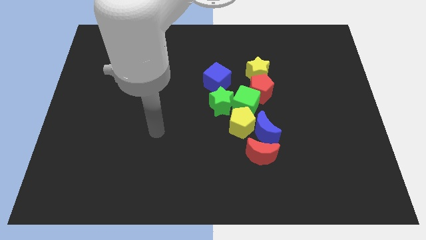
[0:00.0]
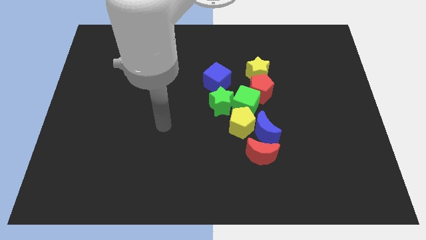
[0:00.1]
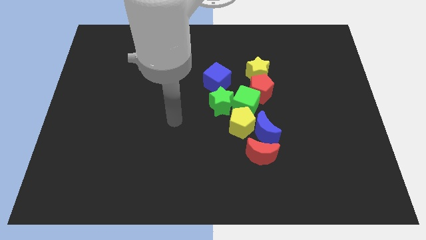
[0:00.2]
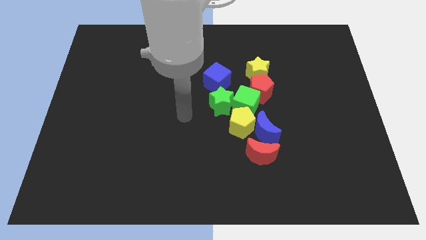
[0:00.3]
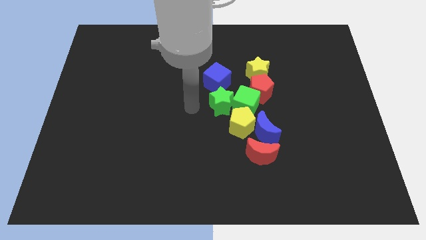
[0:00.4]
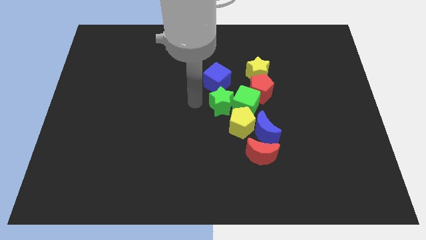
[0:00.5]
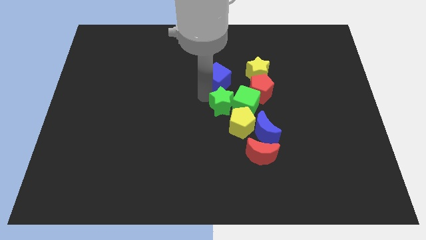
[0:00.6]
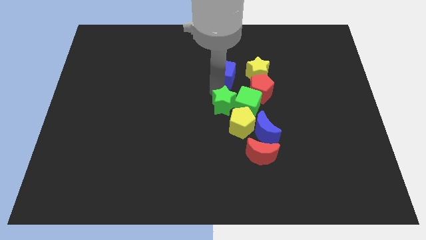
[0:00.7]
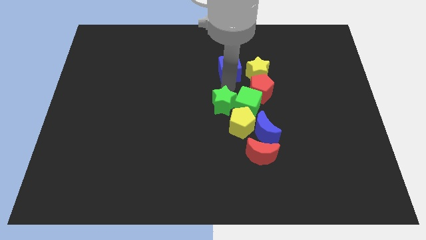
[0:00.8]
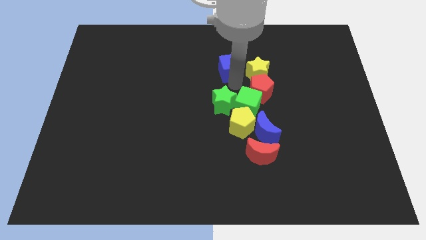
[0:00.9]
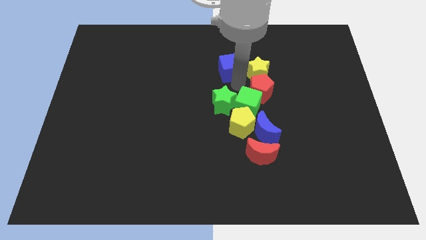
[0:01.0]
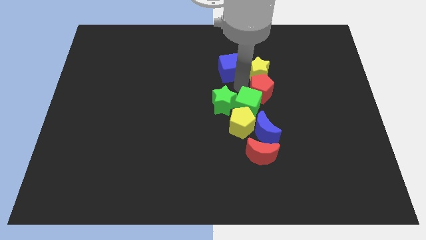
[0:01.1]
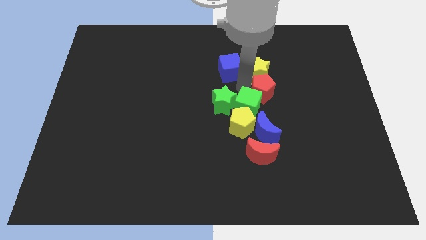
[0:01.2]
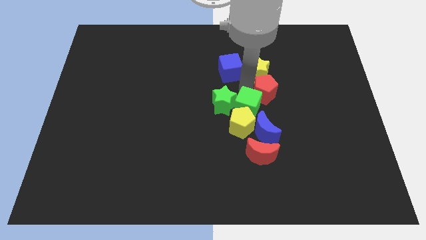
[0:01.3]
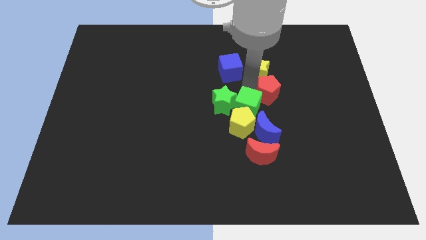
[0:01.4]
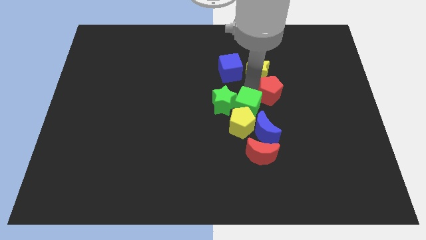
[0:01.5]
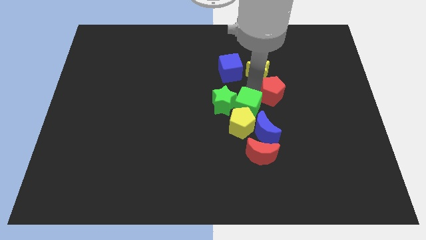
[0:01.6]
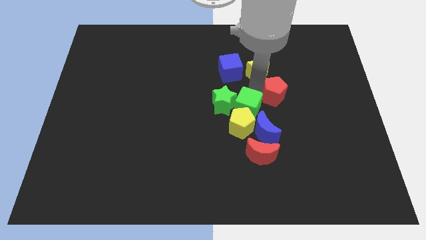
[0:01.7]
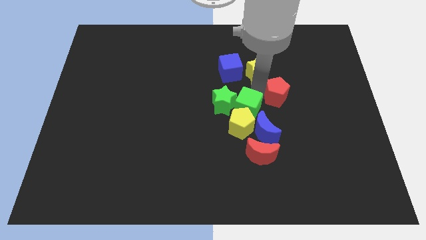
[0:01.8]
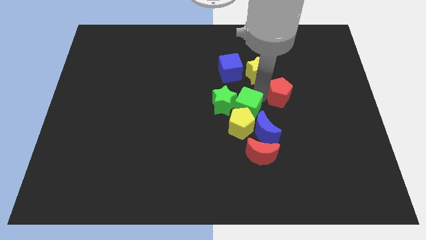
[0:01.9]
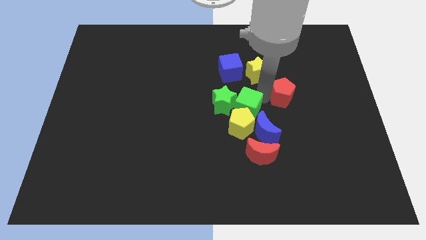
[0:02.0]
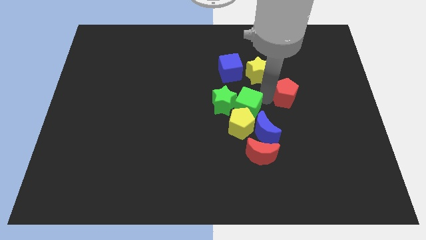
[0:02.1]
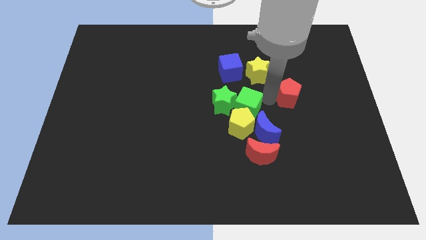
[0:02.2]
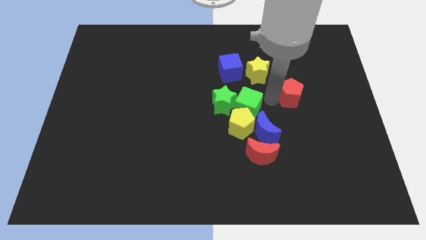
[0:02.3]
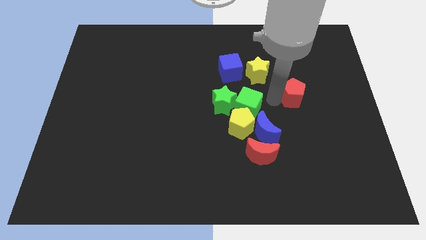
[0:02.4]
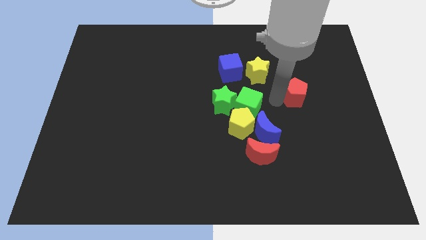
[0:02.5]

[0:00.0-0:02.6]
move the red pentagon away from the green cube and yellow star

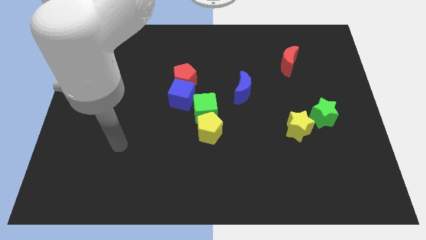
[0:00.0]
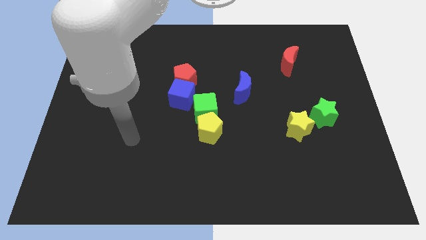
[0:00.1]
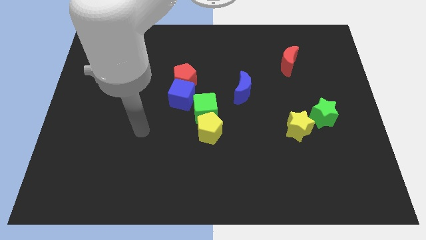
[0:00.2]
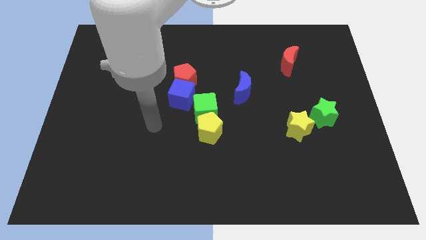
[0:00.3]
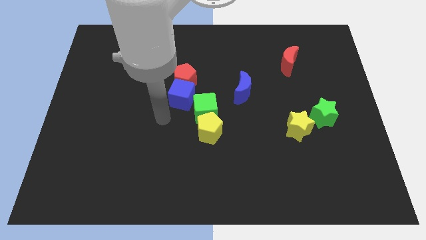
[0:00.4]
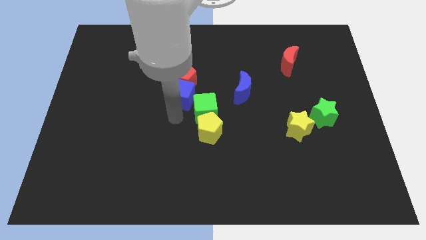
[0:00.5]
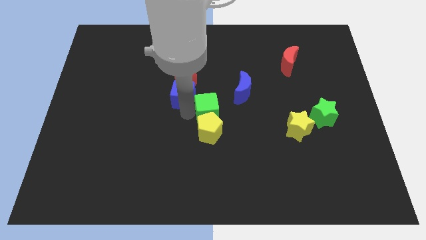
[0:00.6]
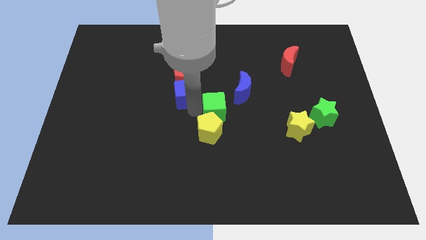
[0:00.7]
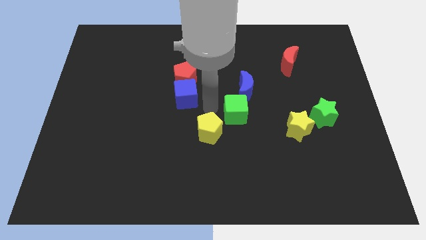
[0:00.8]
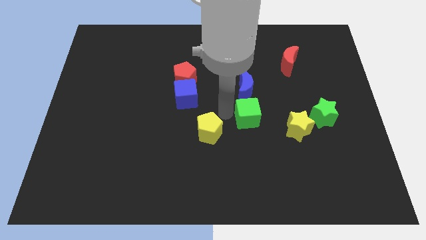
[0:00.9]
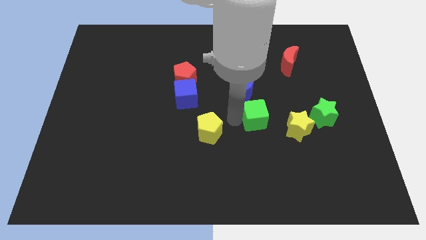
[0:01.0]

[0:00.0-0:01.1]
separate the yellow pentagon from the green cube

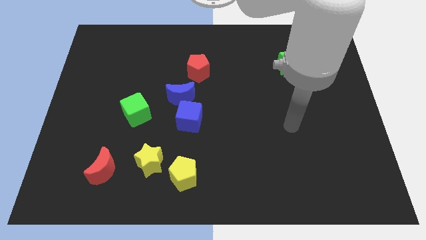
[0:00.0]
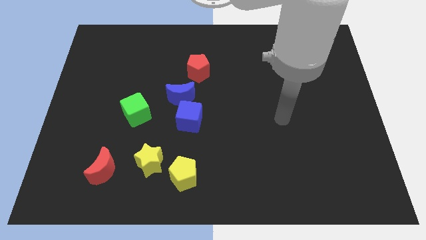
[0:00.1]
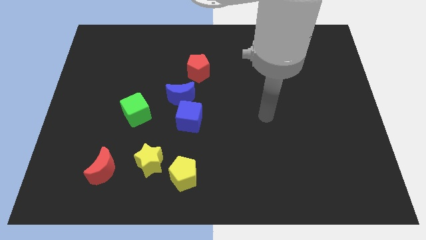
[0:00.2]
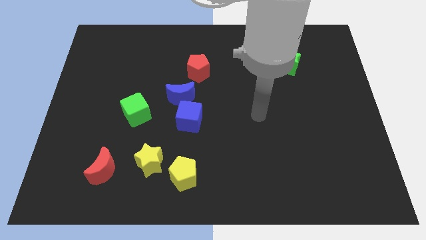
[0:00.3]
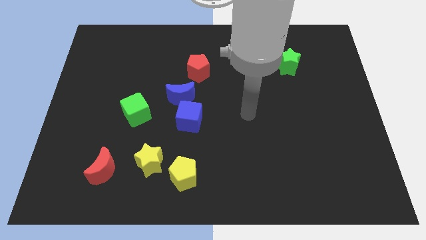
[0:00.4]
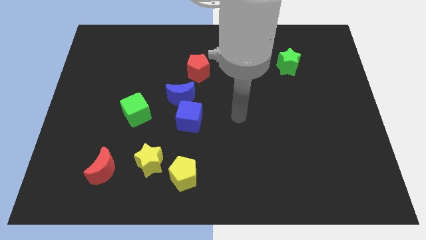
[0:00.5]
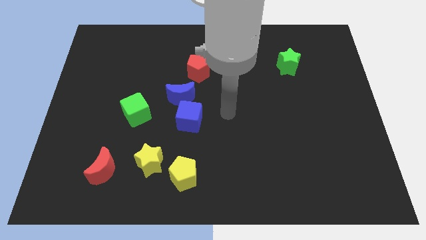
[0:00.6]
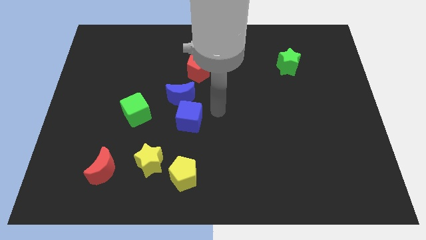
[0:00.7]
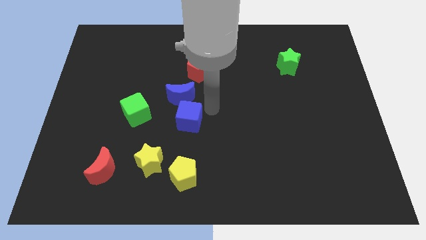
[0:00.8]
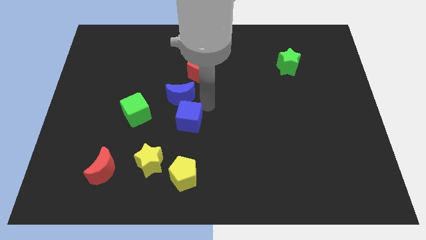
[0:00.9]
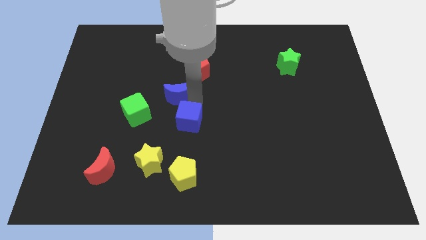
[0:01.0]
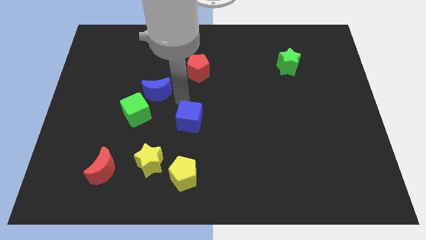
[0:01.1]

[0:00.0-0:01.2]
move the blue cube away from the blue moon

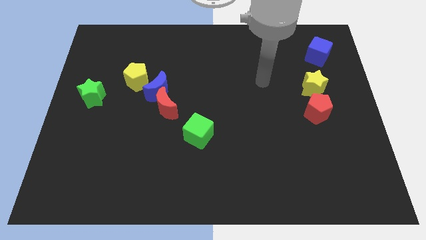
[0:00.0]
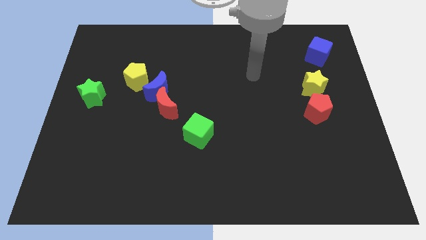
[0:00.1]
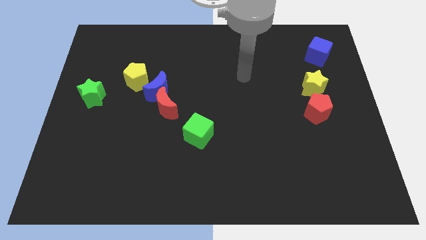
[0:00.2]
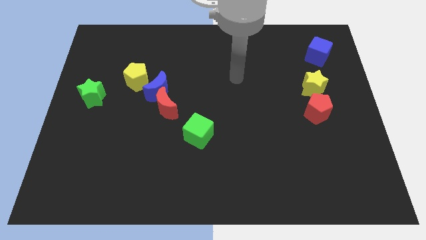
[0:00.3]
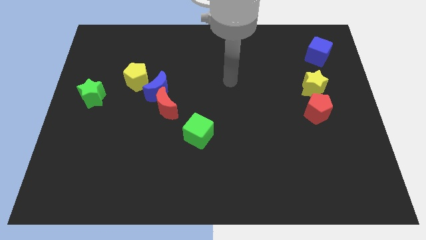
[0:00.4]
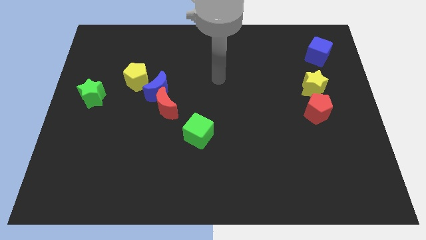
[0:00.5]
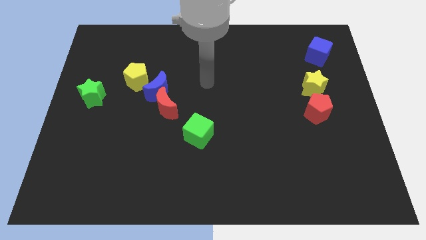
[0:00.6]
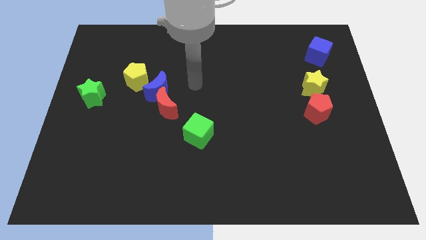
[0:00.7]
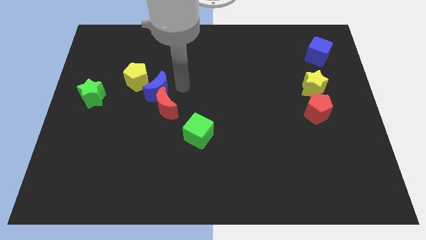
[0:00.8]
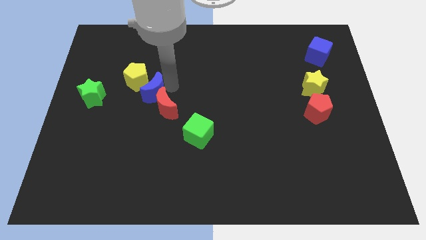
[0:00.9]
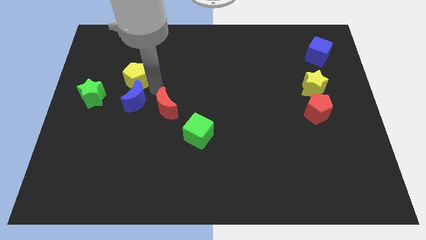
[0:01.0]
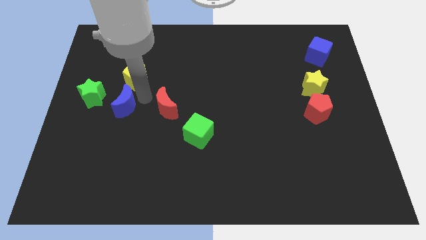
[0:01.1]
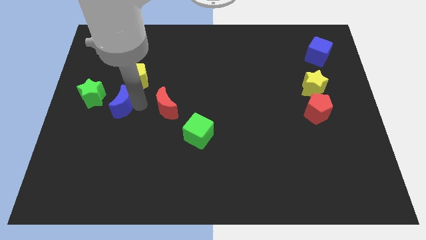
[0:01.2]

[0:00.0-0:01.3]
move the red moon away from the blue moon

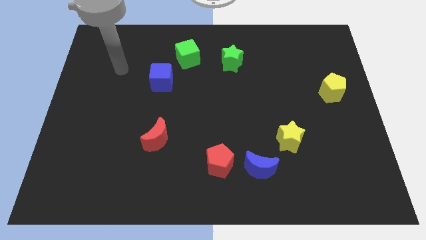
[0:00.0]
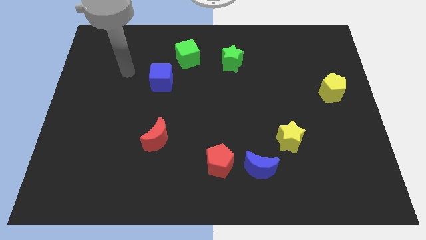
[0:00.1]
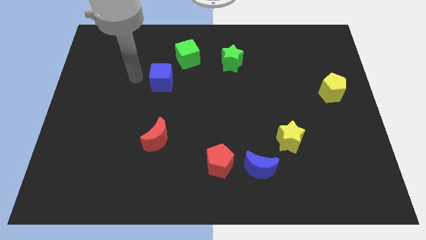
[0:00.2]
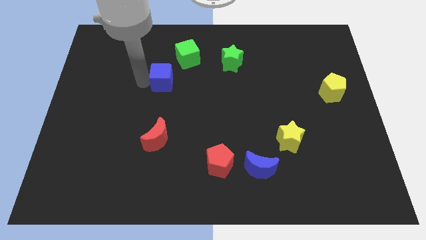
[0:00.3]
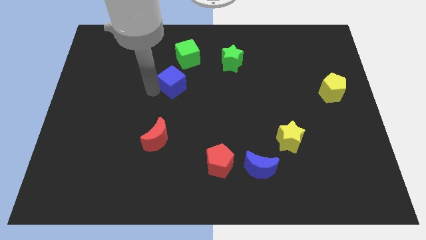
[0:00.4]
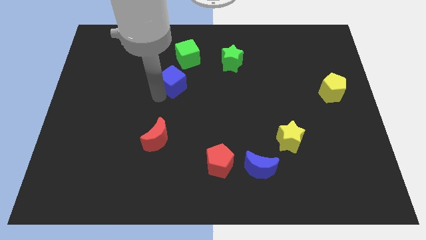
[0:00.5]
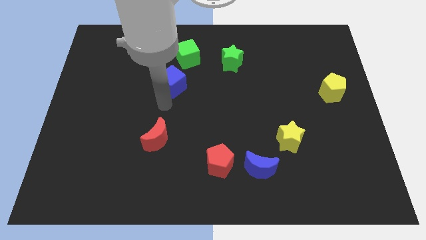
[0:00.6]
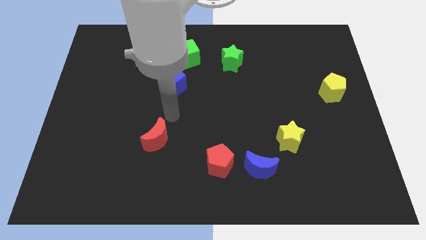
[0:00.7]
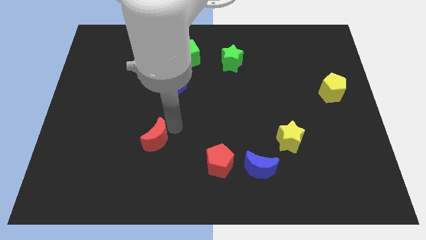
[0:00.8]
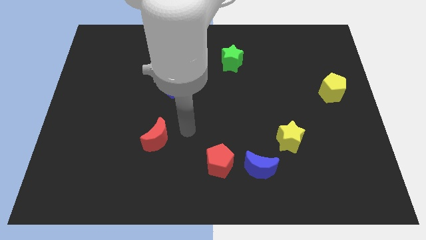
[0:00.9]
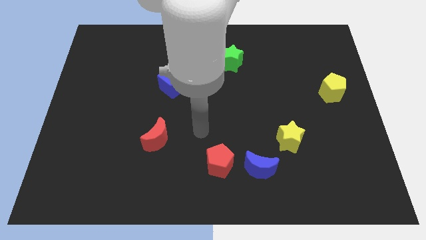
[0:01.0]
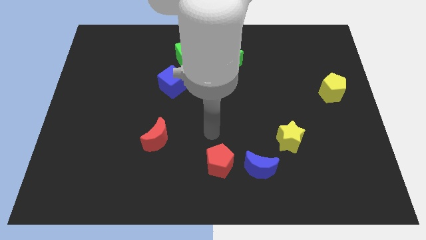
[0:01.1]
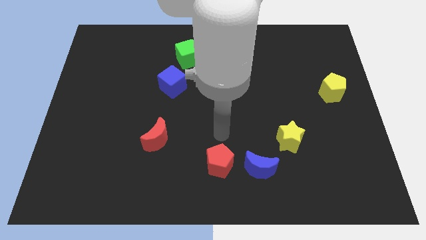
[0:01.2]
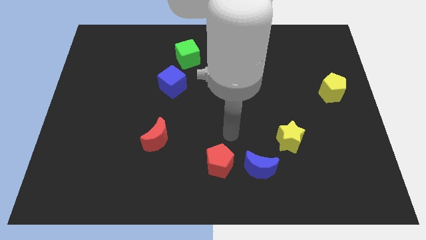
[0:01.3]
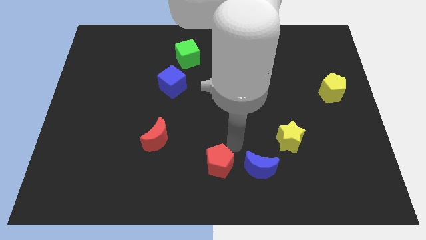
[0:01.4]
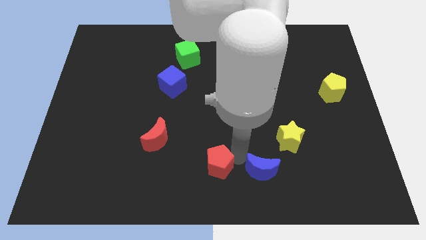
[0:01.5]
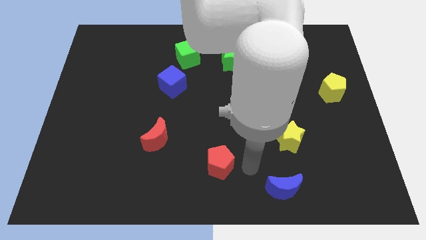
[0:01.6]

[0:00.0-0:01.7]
move the red pentagon away from the blue moon

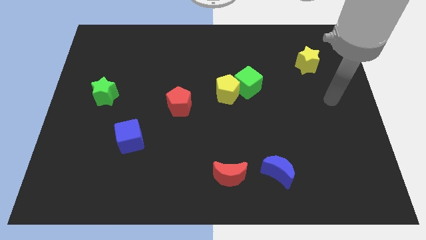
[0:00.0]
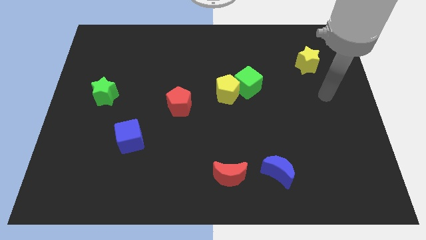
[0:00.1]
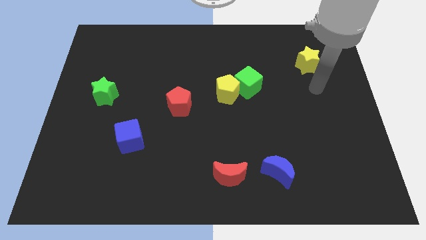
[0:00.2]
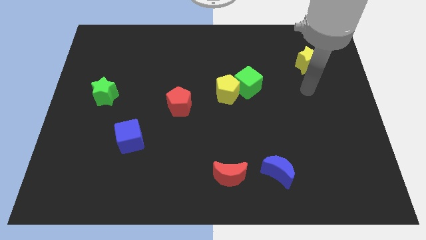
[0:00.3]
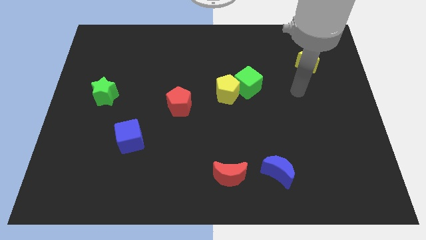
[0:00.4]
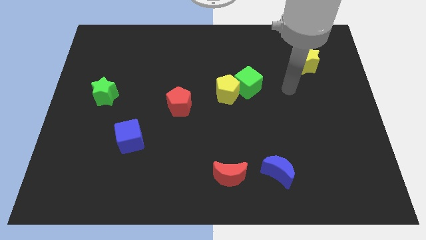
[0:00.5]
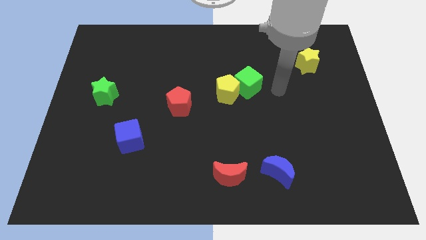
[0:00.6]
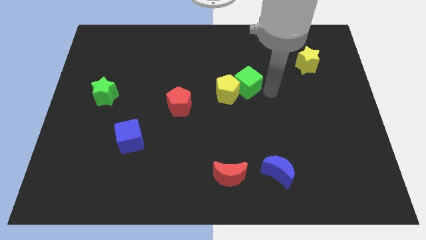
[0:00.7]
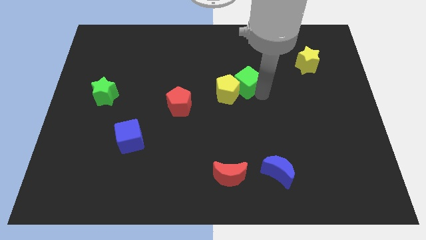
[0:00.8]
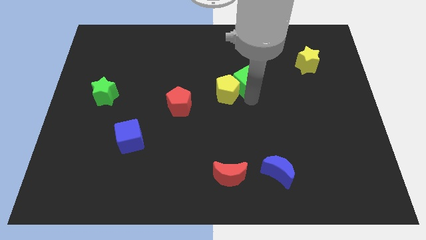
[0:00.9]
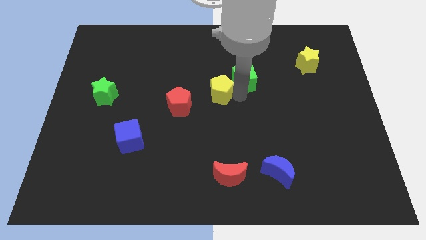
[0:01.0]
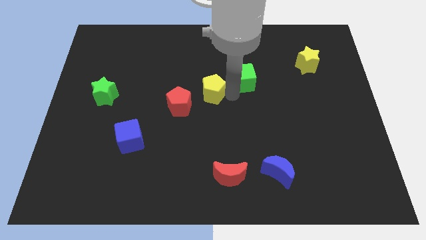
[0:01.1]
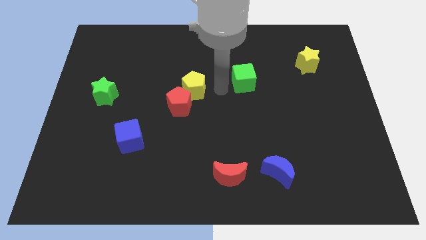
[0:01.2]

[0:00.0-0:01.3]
separate the green cube from the yellow pentagon

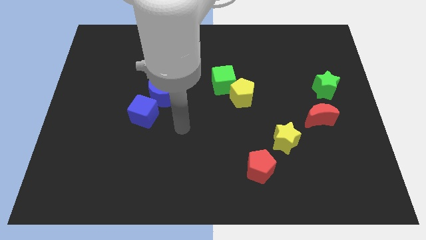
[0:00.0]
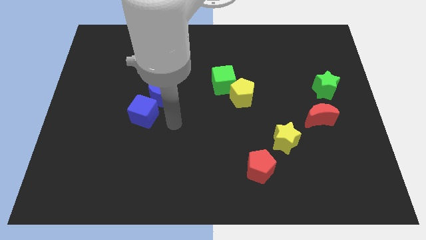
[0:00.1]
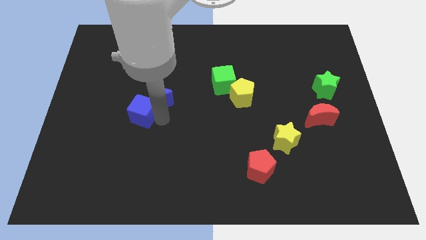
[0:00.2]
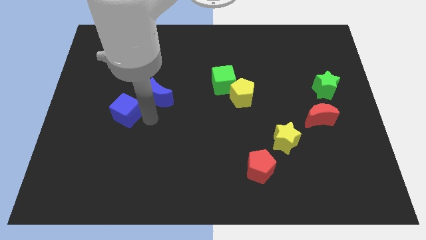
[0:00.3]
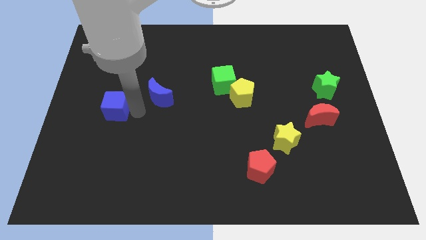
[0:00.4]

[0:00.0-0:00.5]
move the blue moon away from the blue cube
